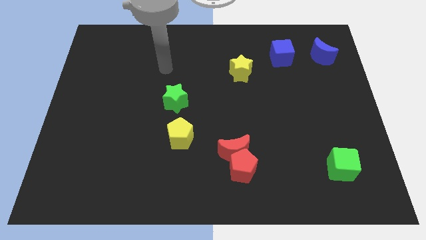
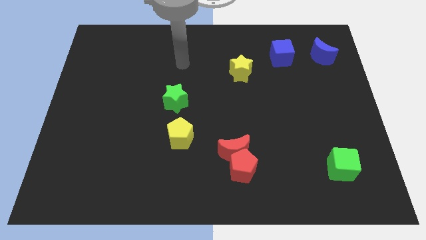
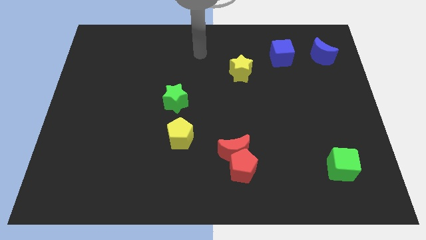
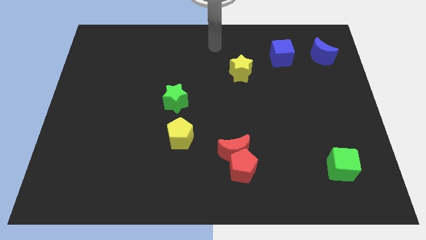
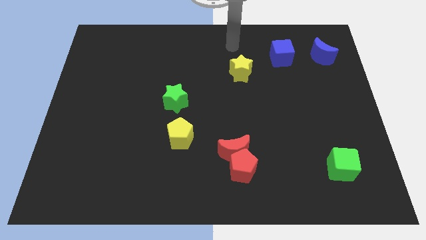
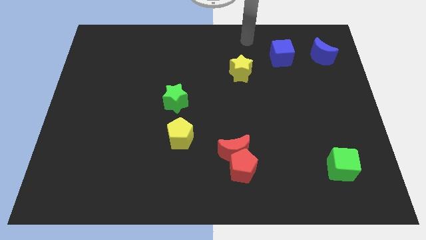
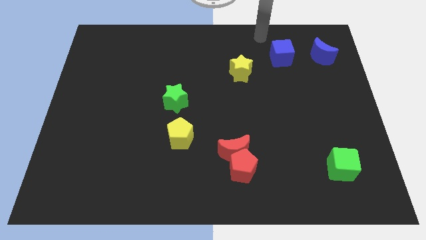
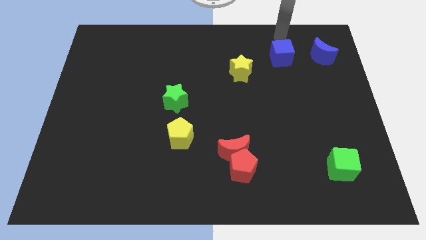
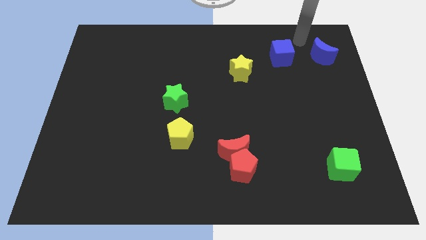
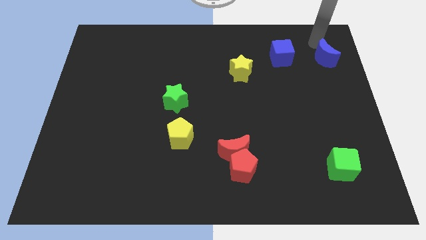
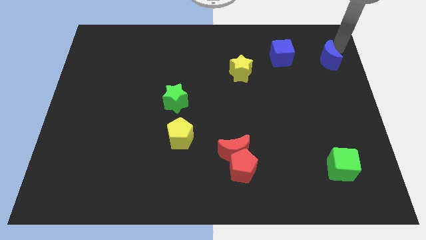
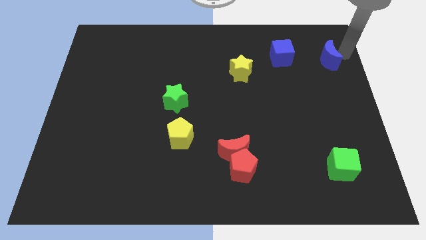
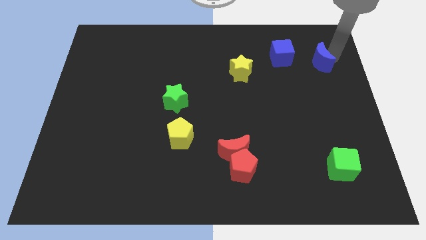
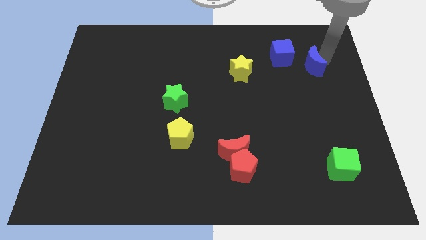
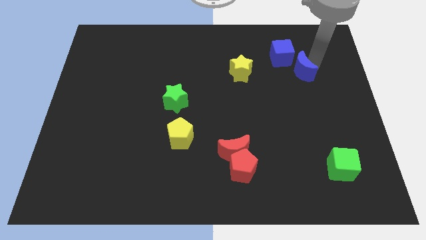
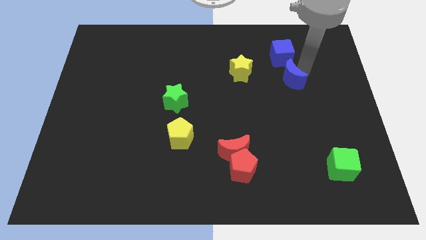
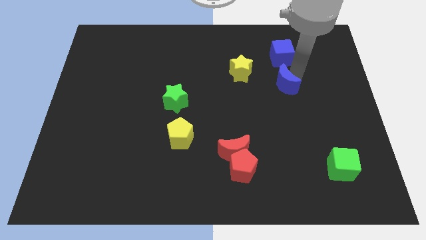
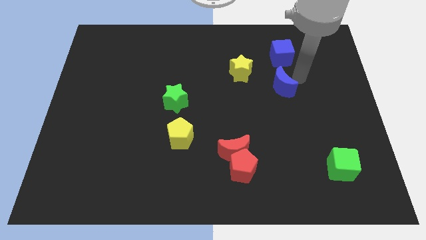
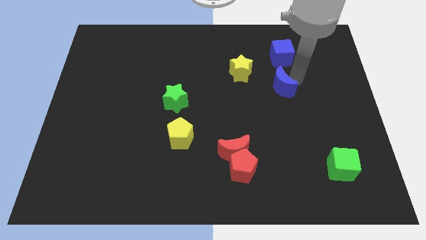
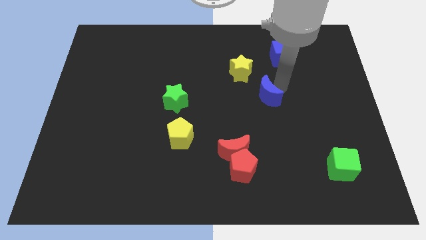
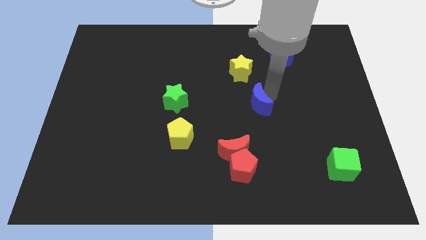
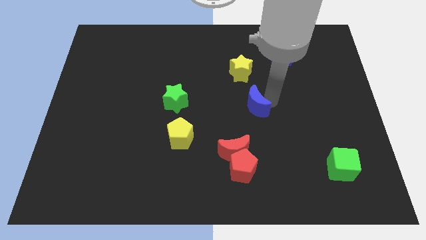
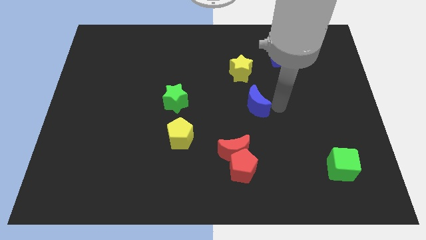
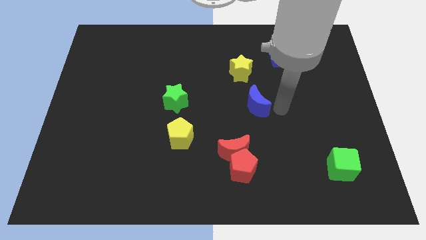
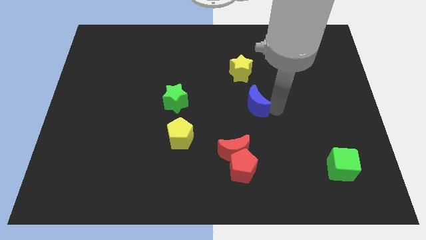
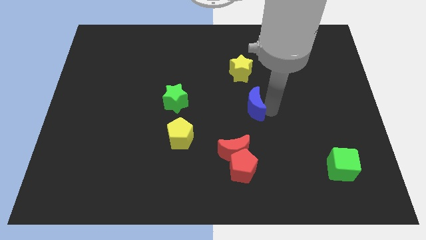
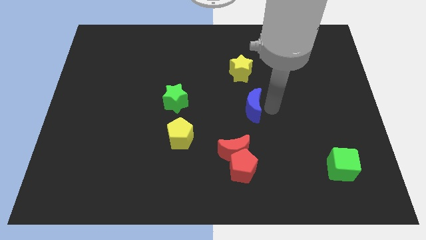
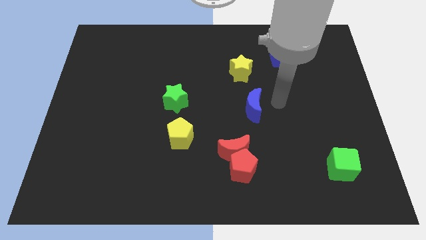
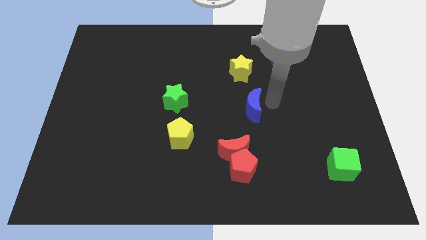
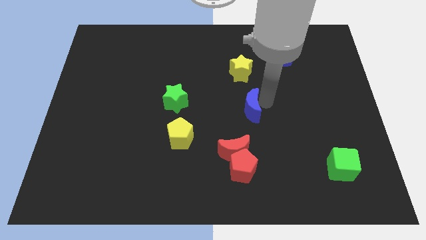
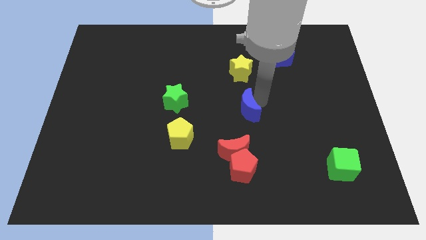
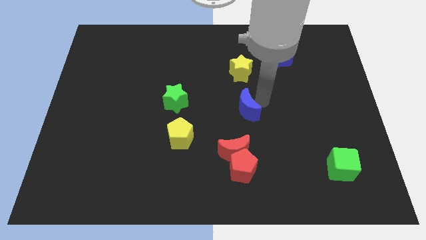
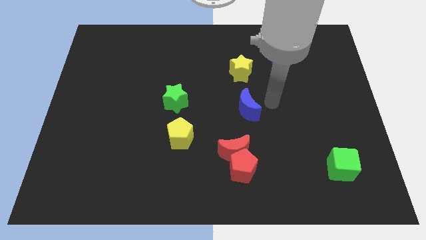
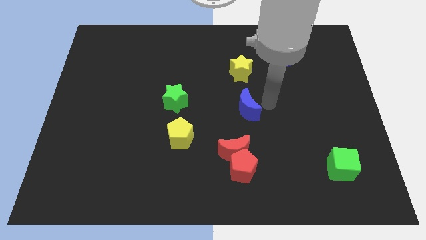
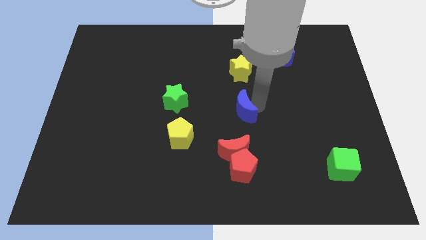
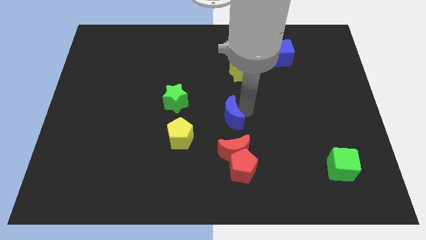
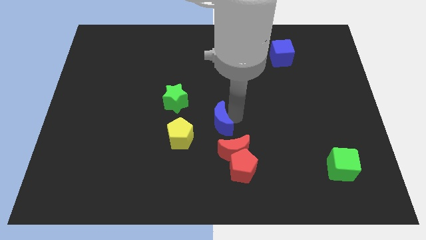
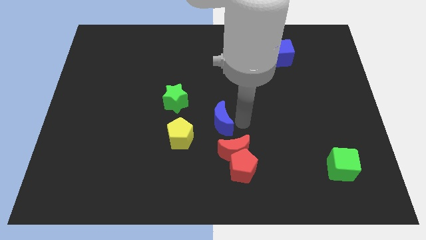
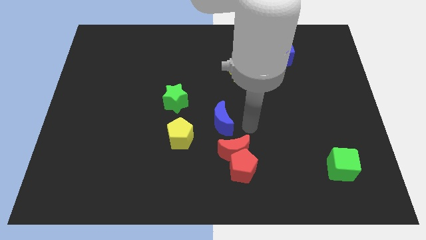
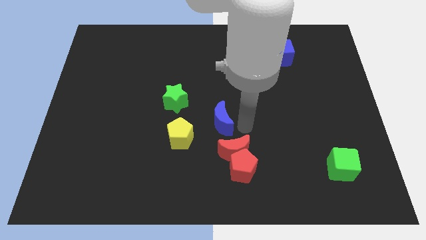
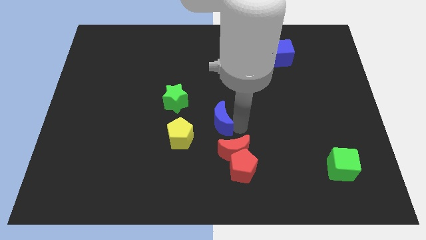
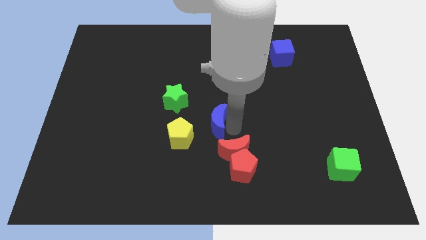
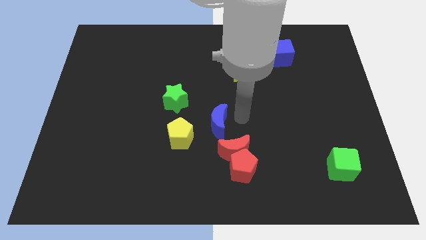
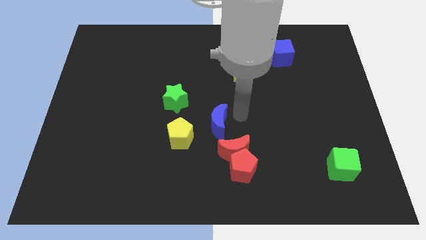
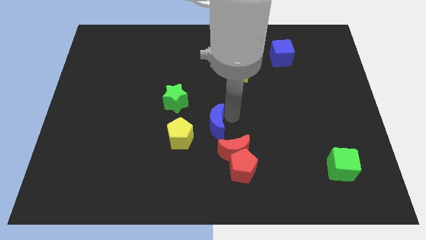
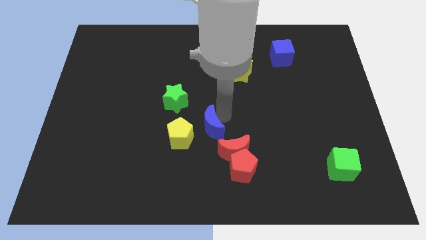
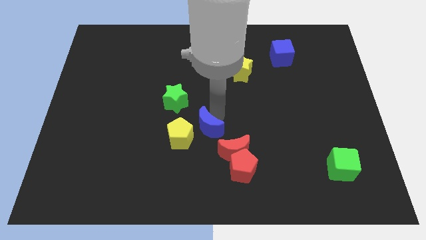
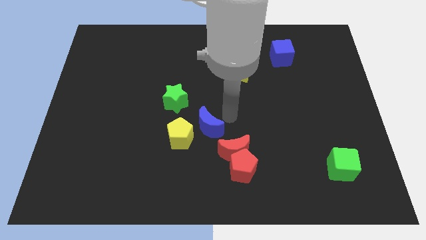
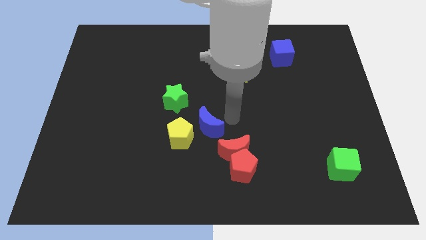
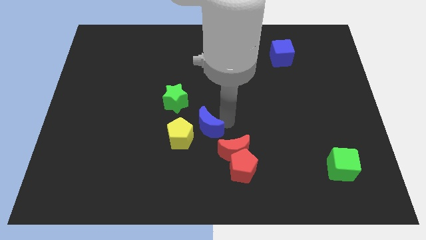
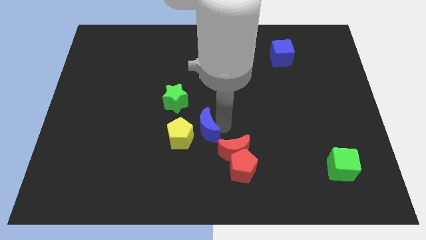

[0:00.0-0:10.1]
put the blue moon close to the yellow pentagon

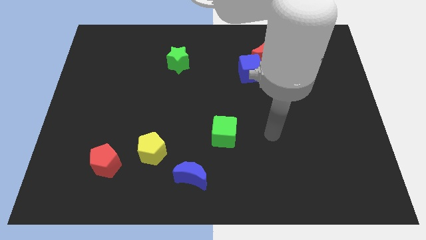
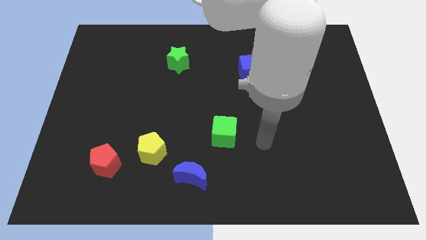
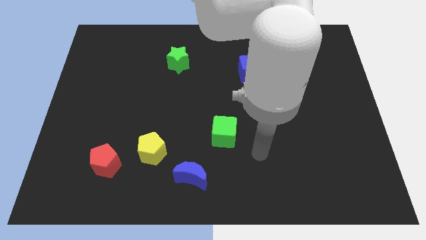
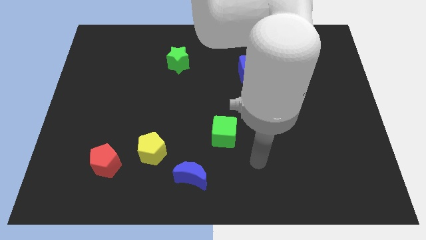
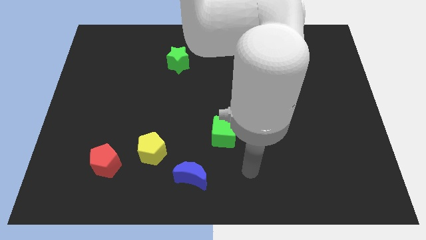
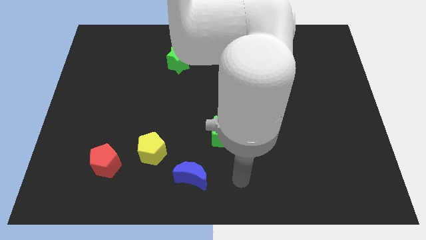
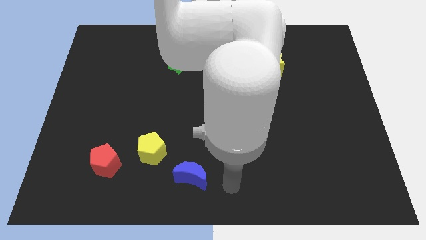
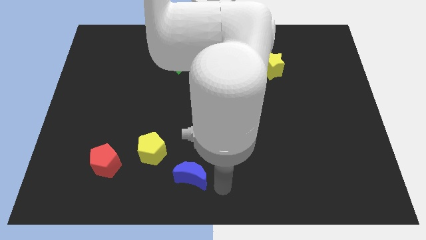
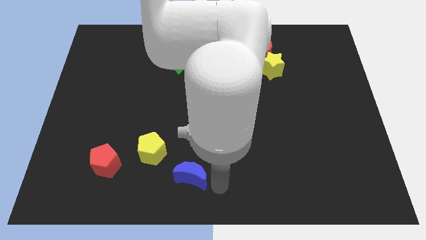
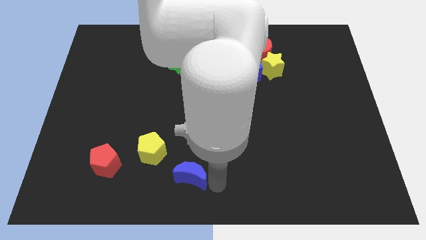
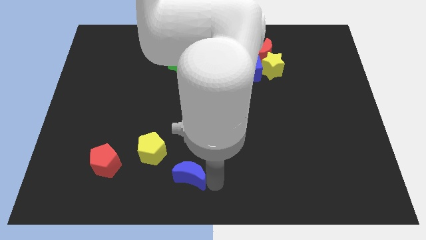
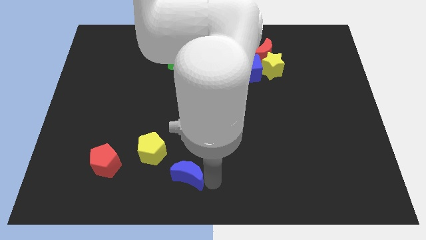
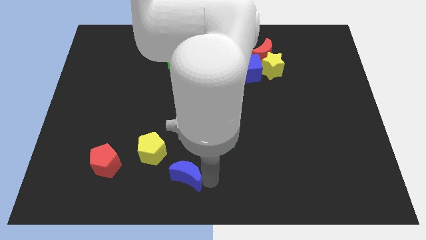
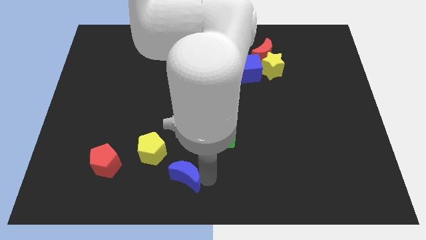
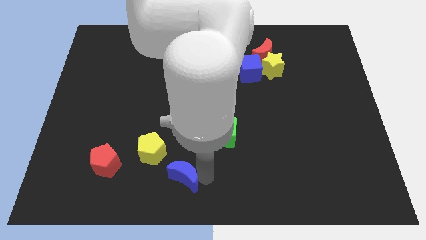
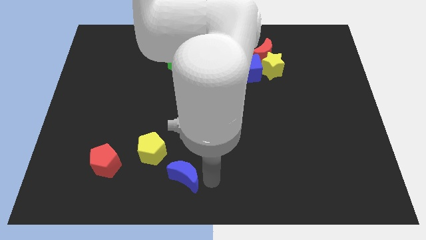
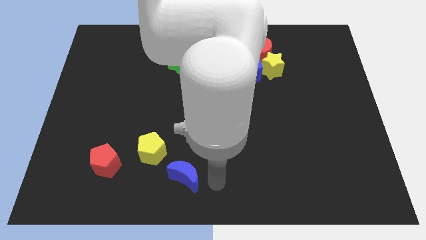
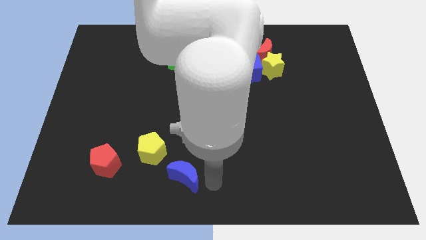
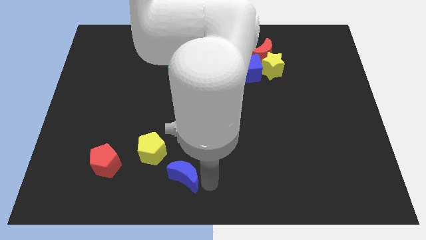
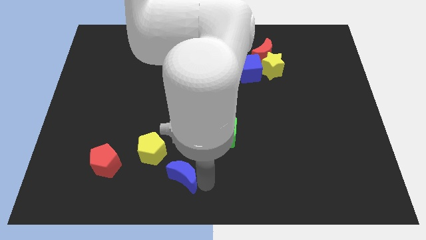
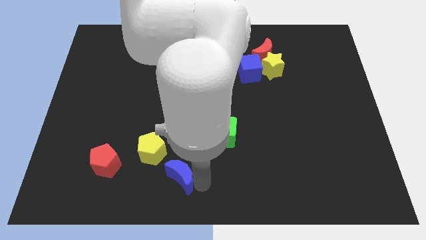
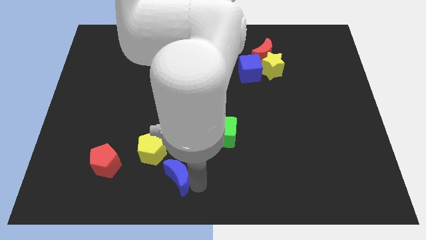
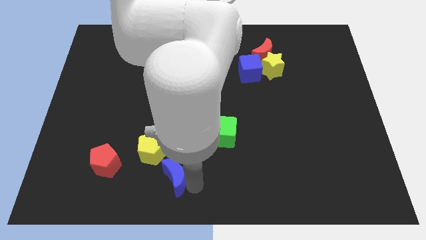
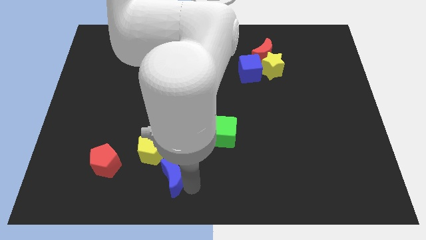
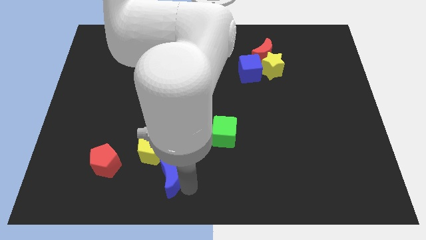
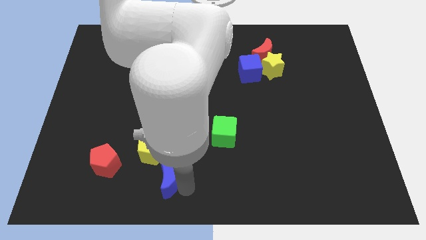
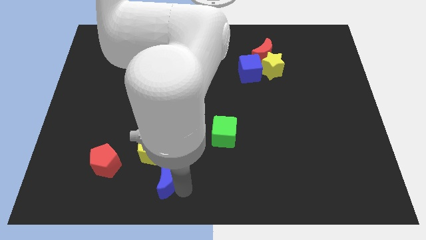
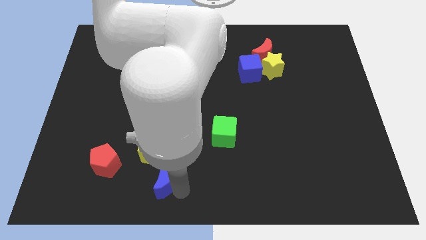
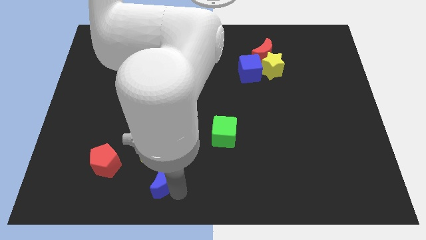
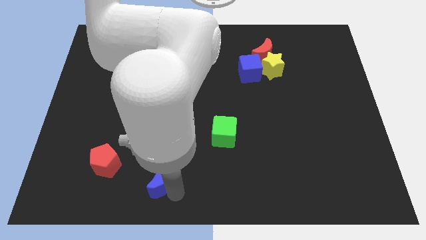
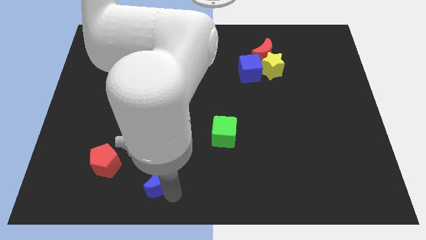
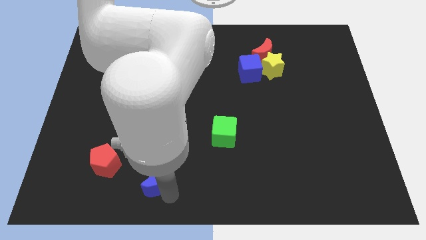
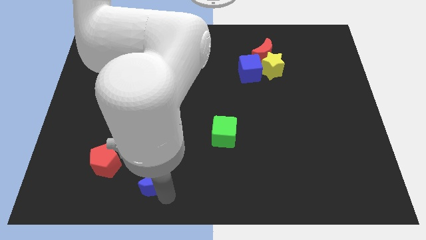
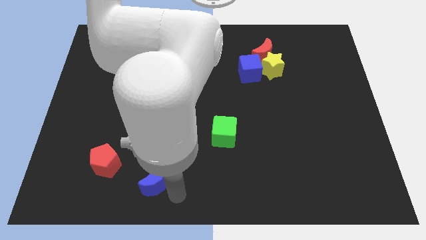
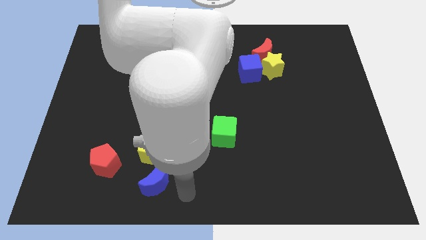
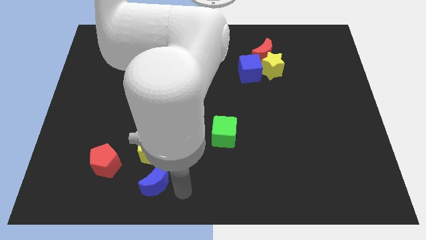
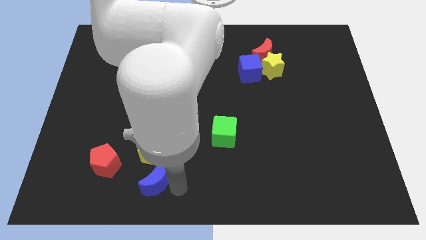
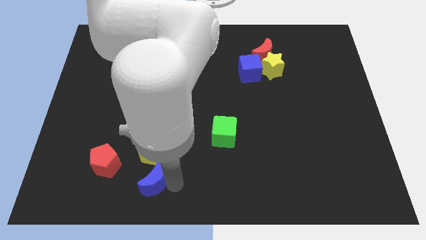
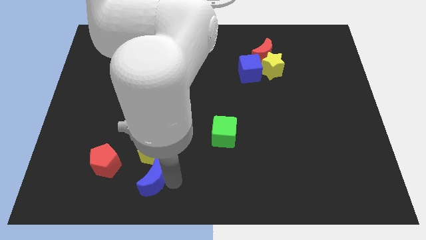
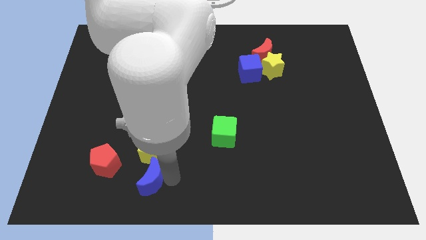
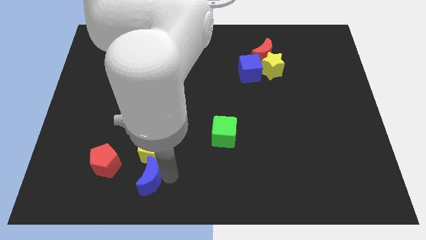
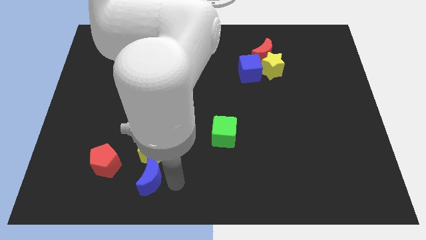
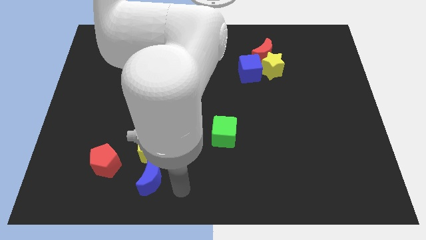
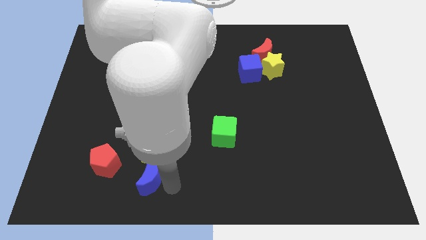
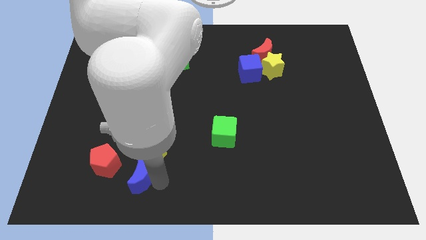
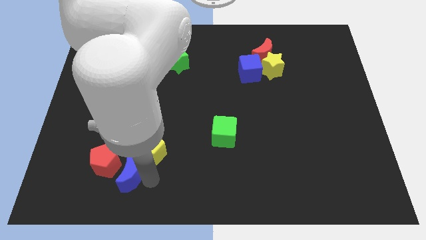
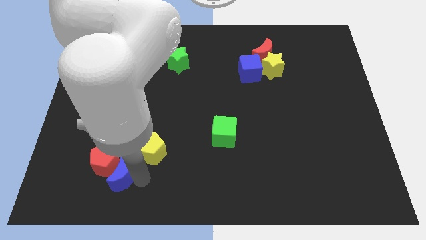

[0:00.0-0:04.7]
slide the blue moon close to the red pentagon
